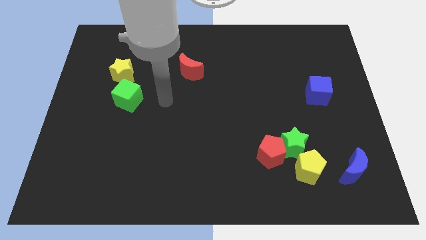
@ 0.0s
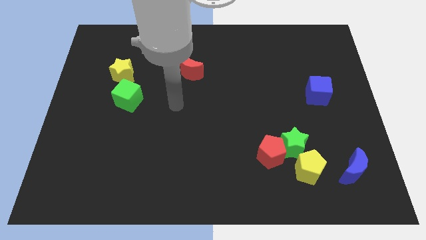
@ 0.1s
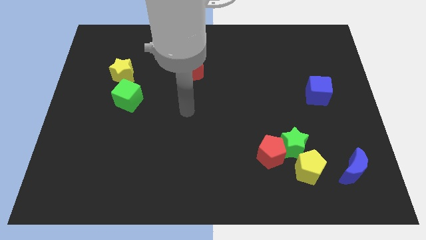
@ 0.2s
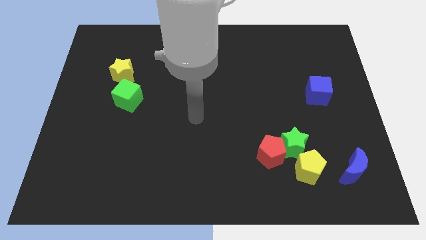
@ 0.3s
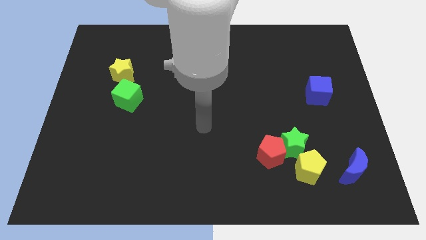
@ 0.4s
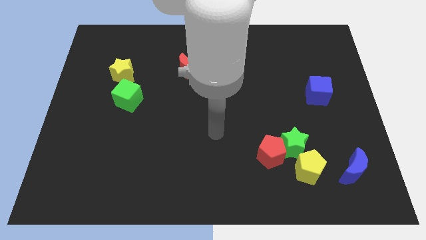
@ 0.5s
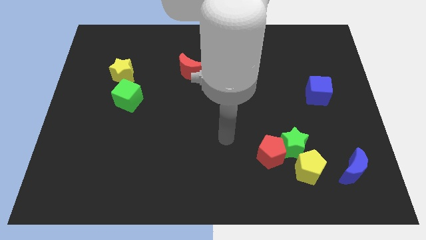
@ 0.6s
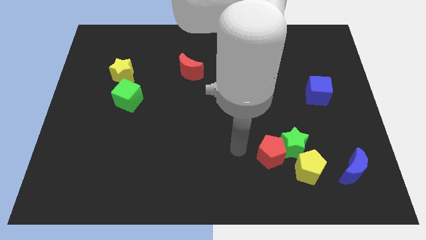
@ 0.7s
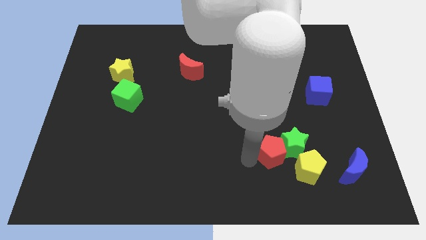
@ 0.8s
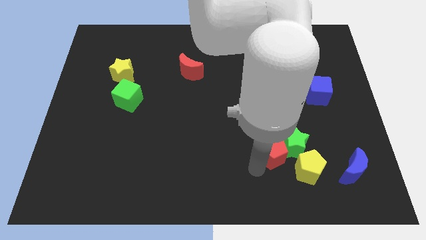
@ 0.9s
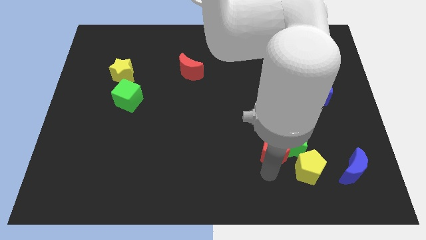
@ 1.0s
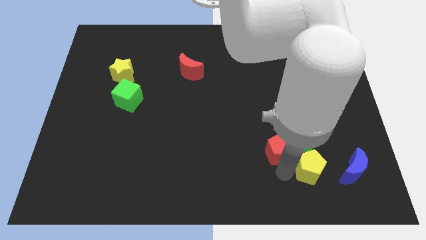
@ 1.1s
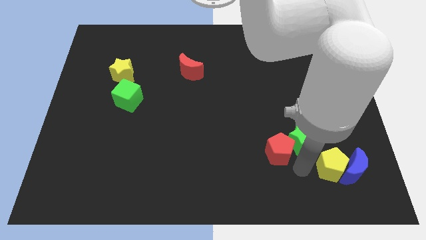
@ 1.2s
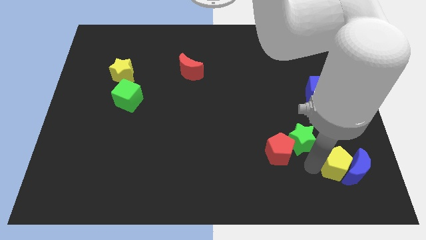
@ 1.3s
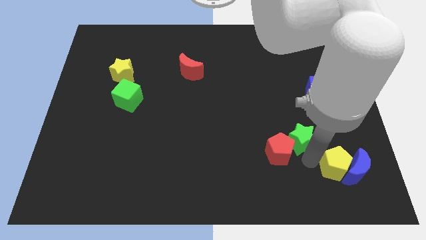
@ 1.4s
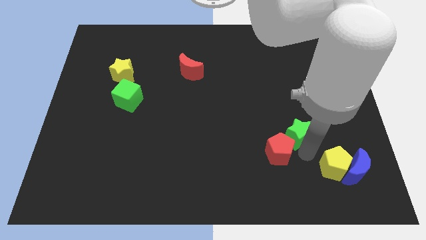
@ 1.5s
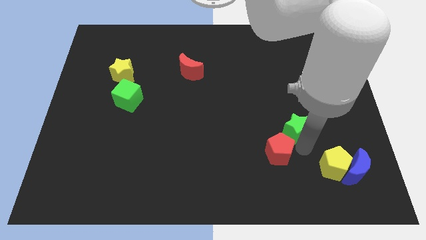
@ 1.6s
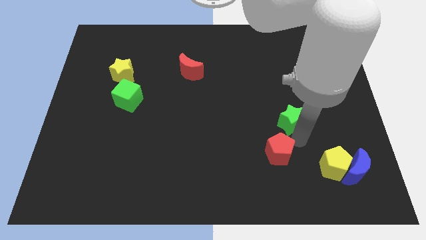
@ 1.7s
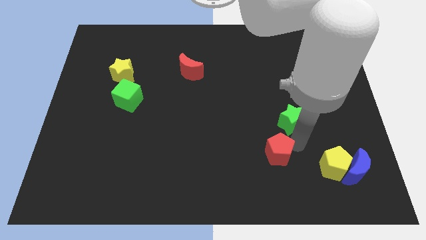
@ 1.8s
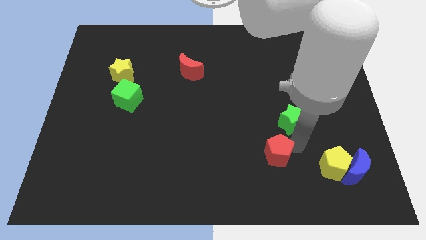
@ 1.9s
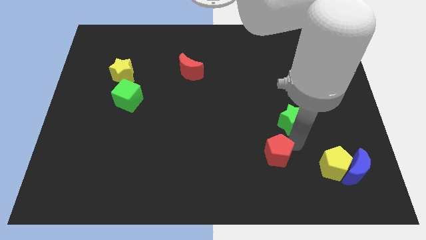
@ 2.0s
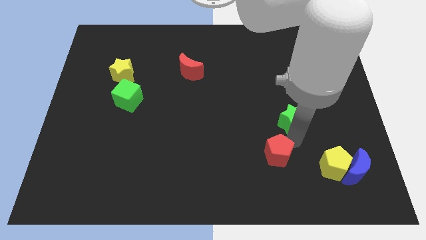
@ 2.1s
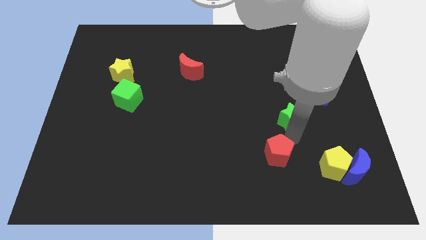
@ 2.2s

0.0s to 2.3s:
slightly move the green star up

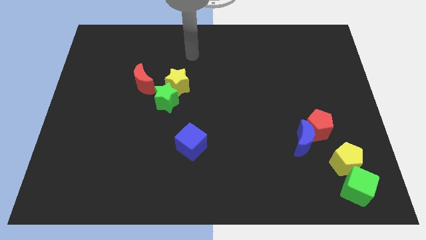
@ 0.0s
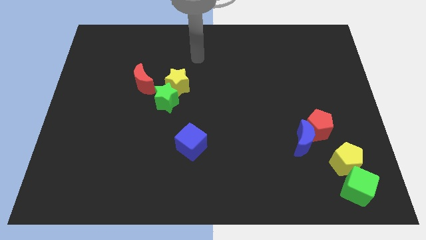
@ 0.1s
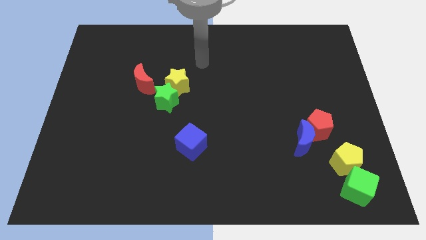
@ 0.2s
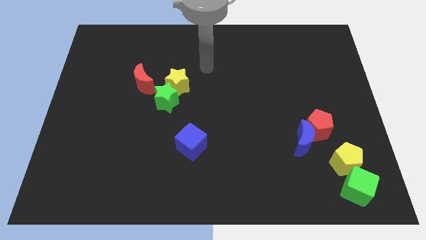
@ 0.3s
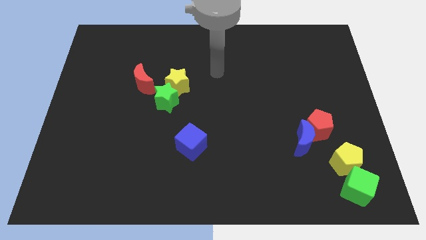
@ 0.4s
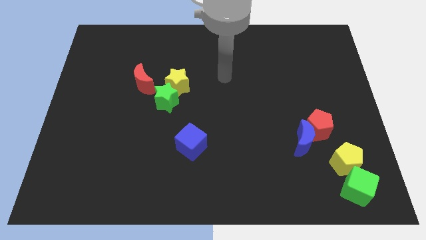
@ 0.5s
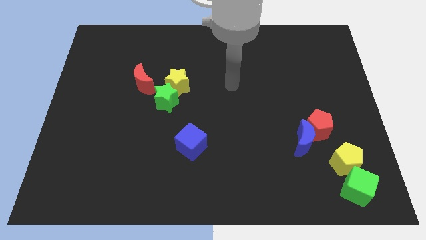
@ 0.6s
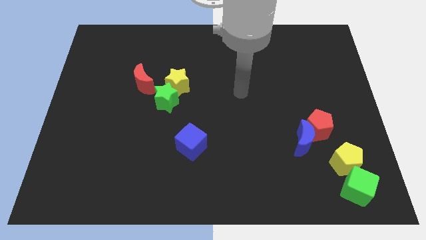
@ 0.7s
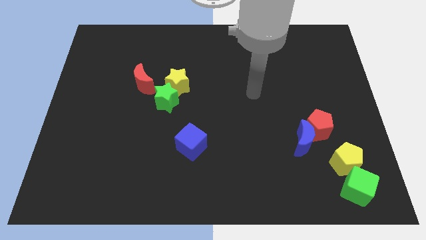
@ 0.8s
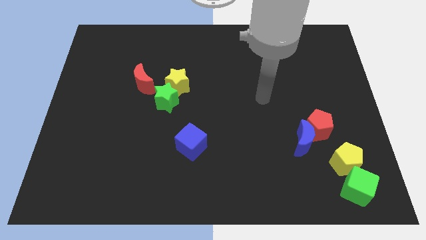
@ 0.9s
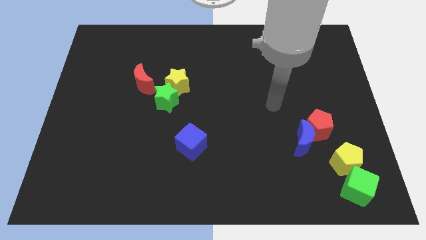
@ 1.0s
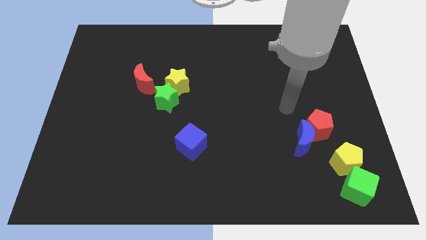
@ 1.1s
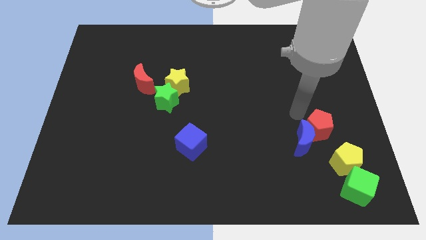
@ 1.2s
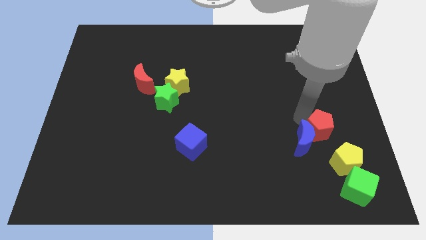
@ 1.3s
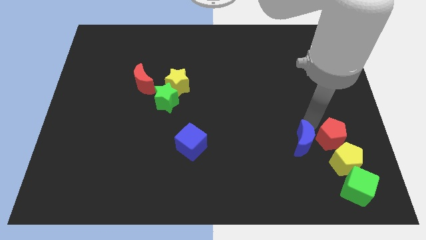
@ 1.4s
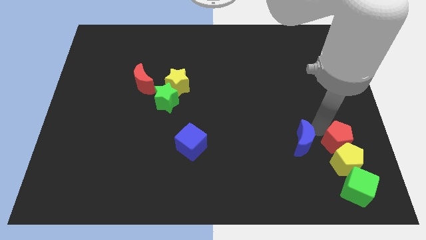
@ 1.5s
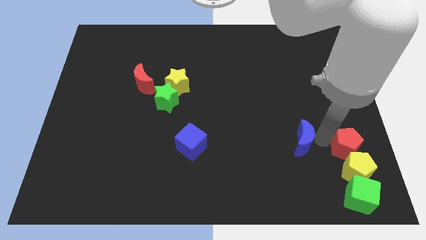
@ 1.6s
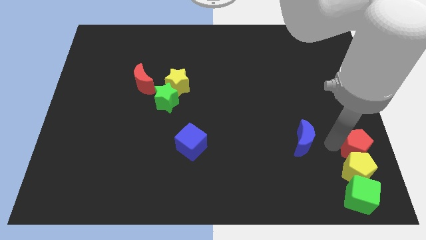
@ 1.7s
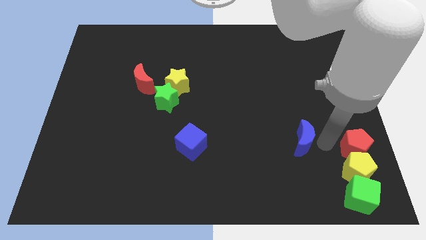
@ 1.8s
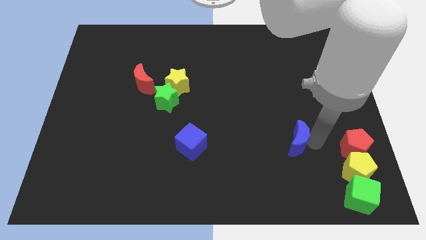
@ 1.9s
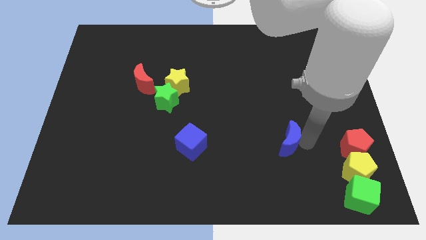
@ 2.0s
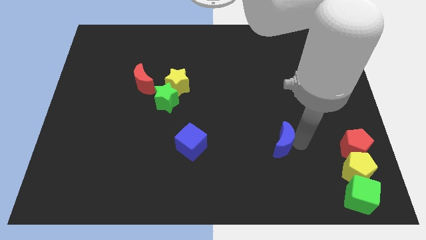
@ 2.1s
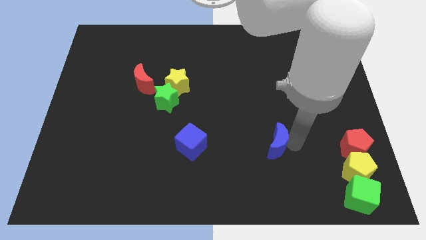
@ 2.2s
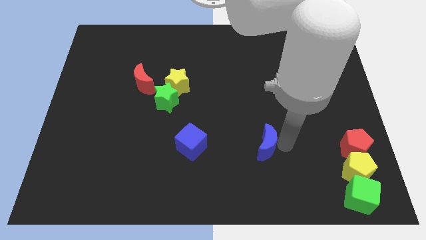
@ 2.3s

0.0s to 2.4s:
push the blue moon somewhat to the left

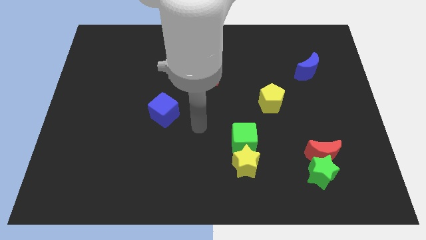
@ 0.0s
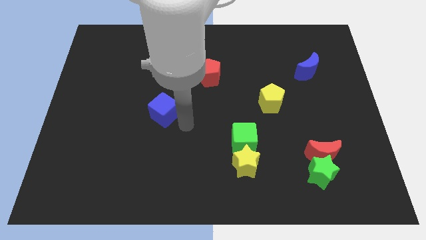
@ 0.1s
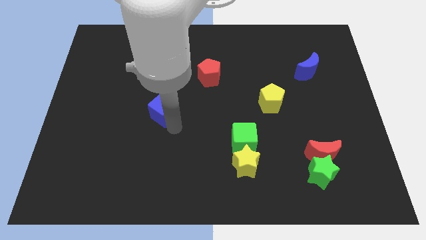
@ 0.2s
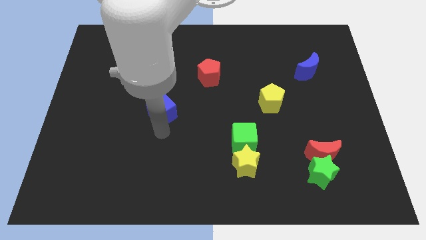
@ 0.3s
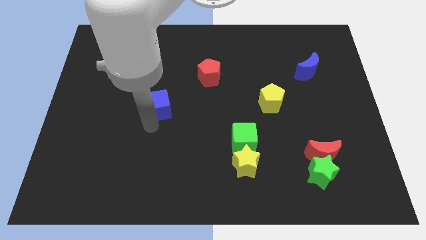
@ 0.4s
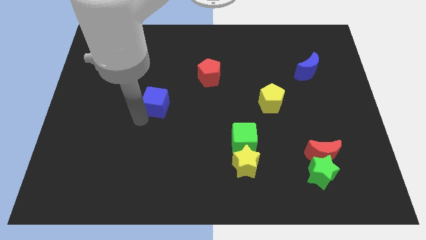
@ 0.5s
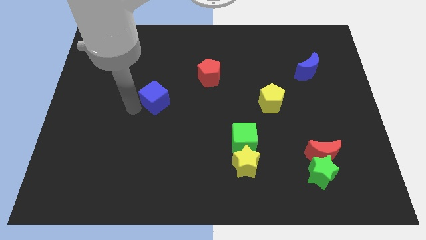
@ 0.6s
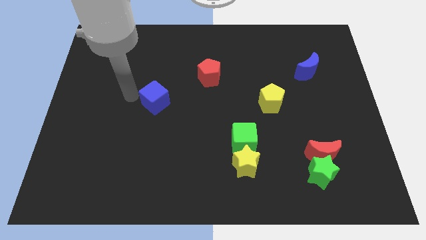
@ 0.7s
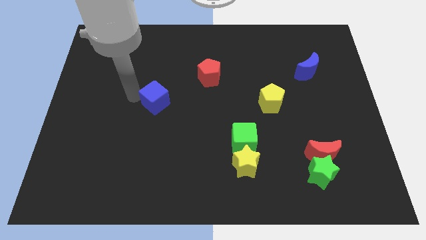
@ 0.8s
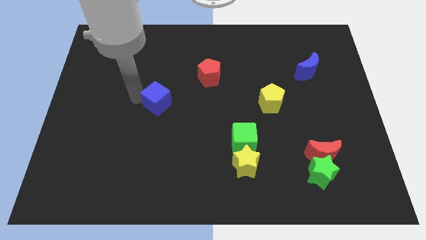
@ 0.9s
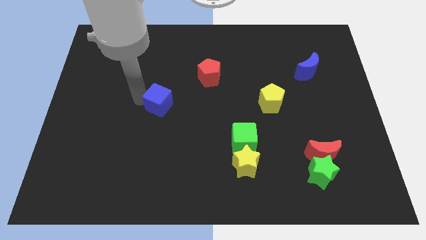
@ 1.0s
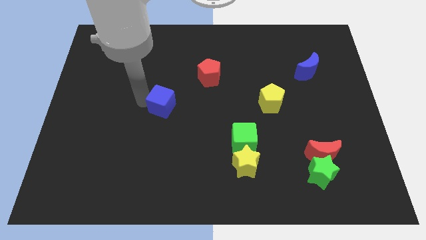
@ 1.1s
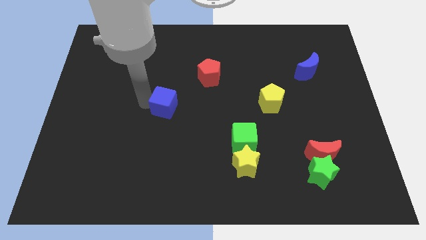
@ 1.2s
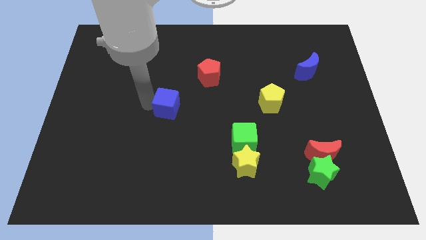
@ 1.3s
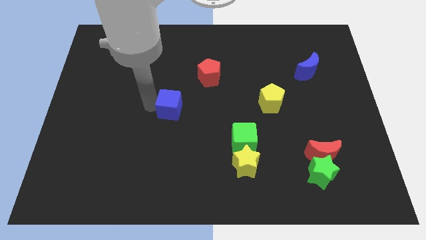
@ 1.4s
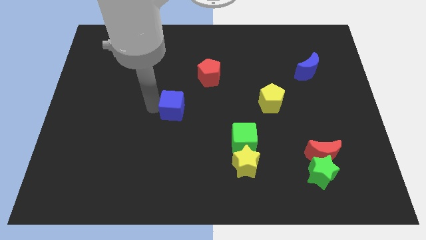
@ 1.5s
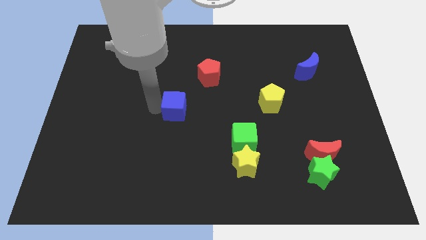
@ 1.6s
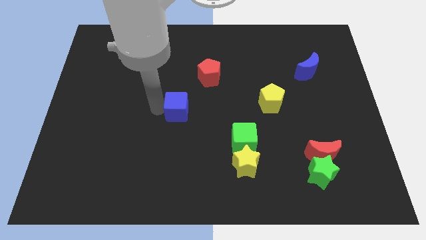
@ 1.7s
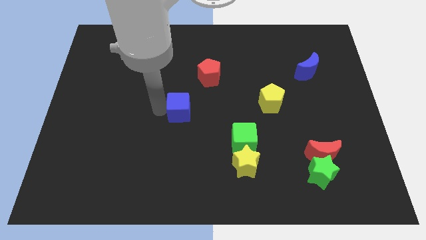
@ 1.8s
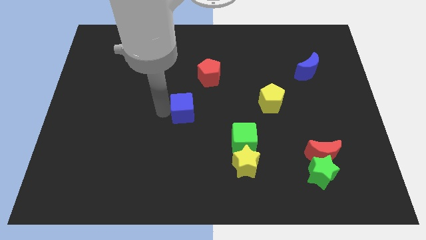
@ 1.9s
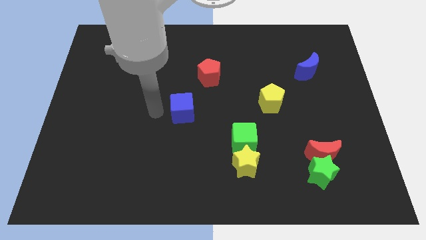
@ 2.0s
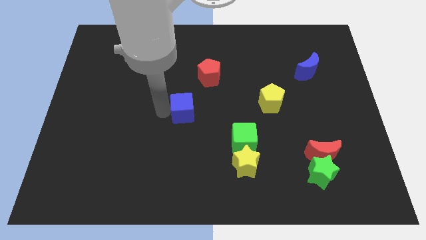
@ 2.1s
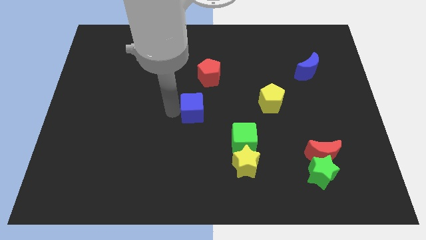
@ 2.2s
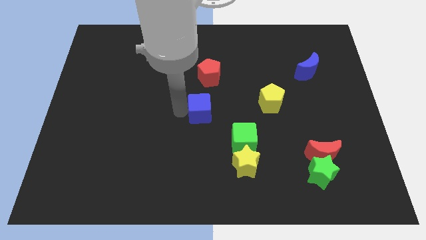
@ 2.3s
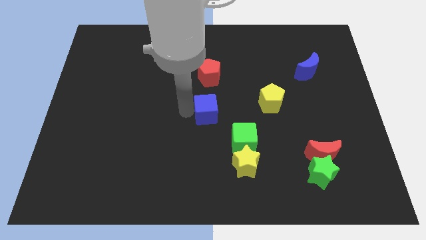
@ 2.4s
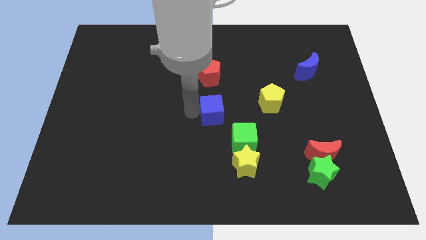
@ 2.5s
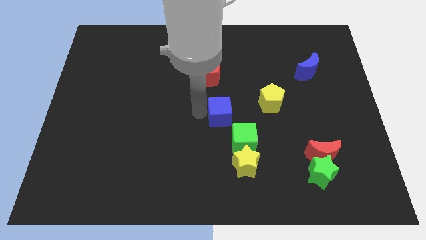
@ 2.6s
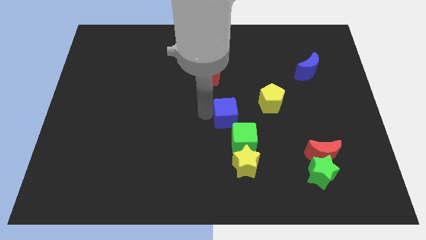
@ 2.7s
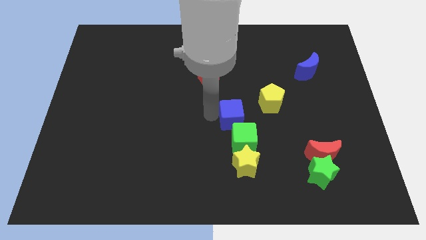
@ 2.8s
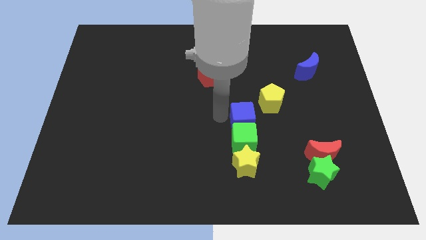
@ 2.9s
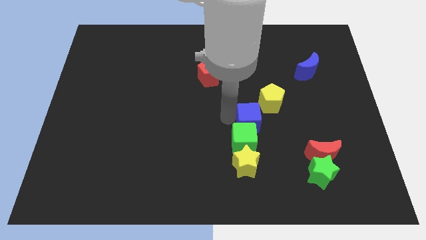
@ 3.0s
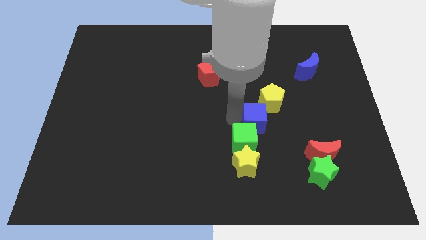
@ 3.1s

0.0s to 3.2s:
push the blue cube right

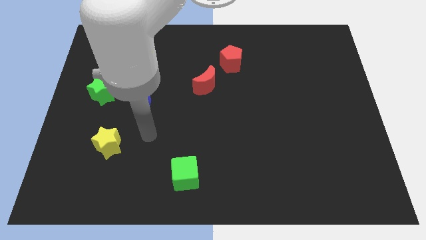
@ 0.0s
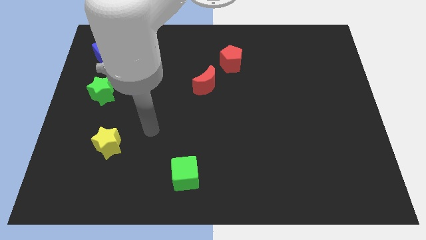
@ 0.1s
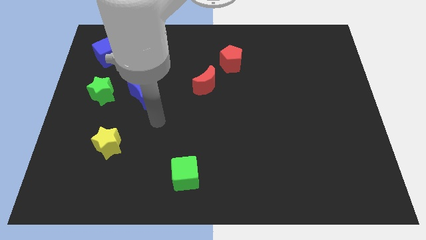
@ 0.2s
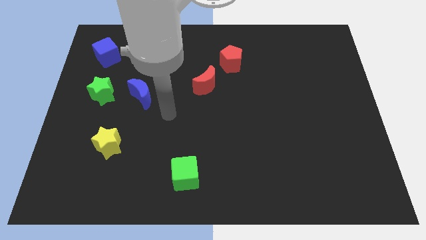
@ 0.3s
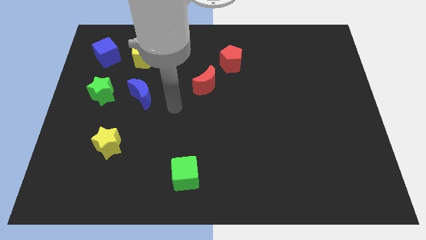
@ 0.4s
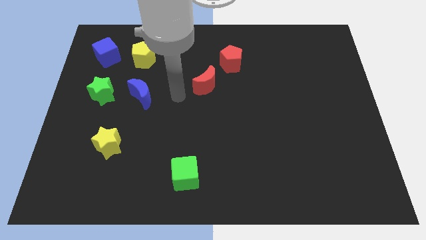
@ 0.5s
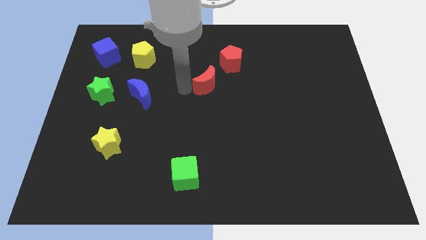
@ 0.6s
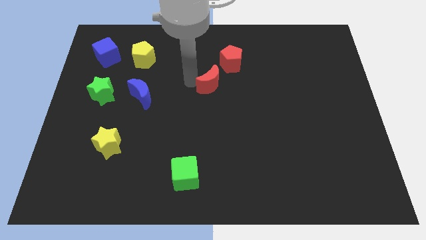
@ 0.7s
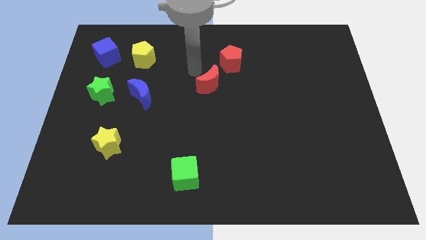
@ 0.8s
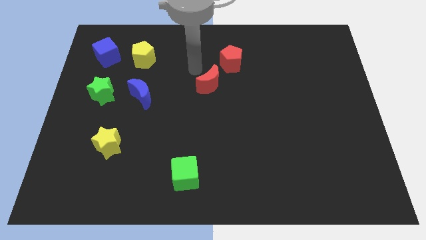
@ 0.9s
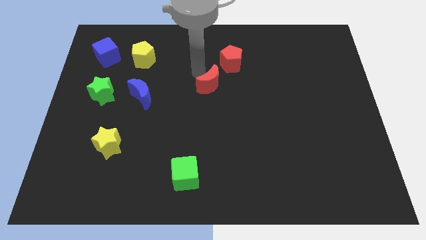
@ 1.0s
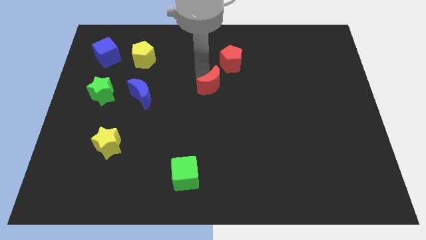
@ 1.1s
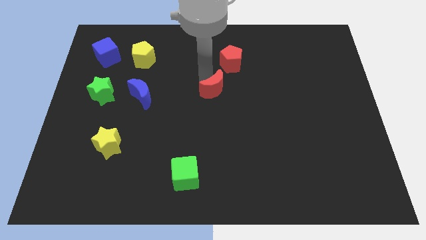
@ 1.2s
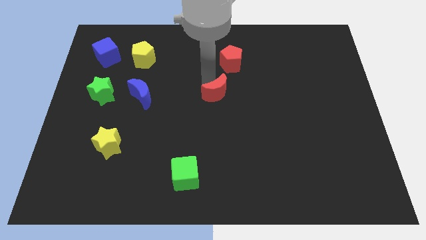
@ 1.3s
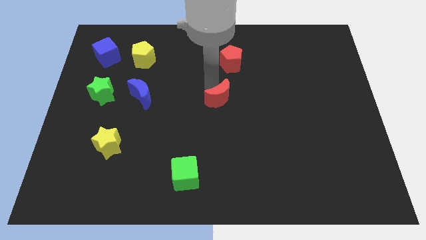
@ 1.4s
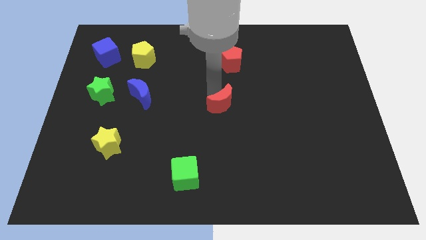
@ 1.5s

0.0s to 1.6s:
slightly move the red moon diagonally downwards and to the right
